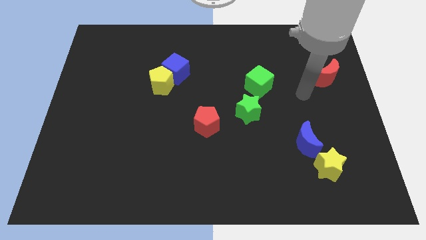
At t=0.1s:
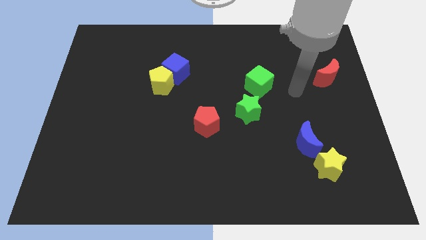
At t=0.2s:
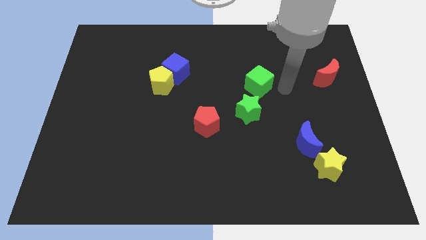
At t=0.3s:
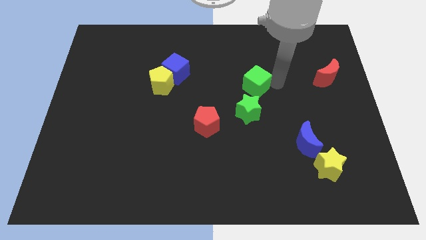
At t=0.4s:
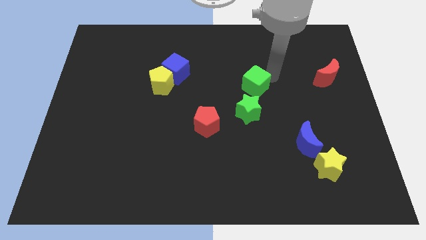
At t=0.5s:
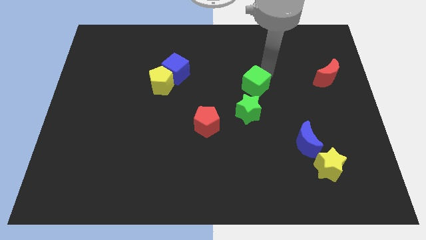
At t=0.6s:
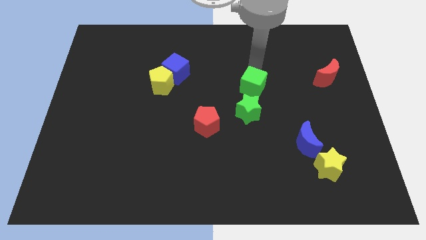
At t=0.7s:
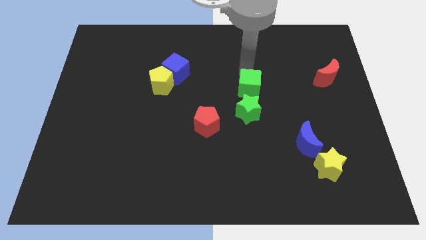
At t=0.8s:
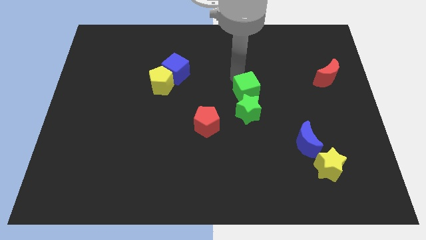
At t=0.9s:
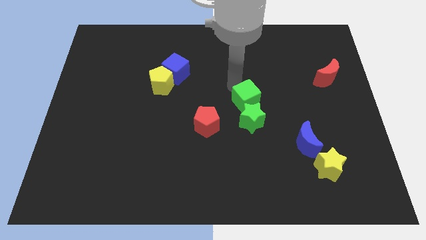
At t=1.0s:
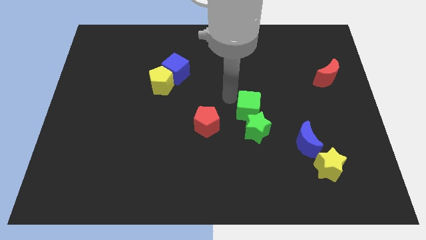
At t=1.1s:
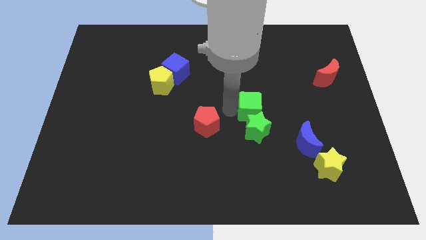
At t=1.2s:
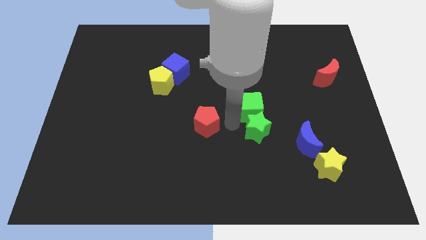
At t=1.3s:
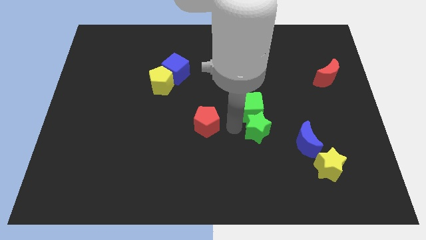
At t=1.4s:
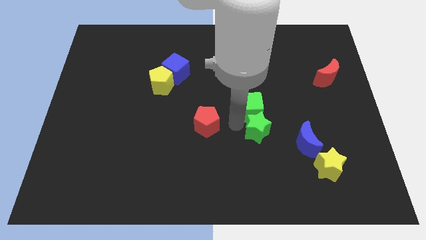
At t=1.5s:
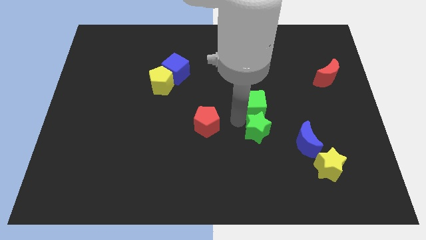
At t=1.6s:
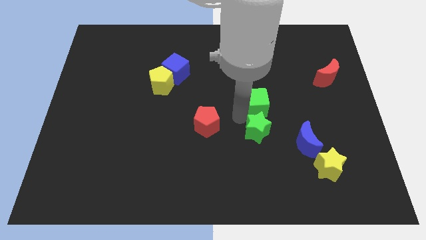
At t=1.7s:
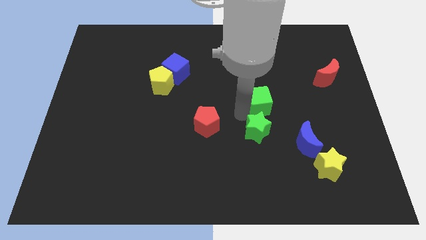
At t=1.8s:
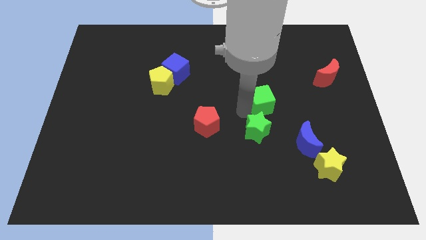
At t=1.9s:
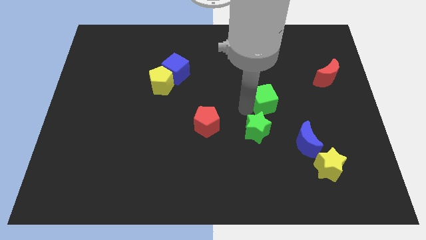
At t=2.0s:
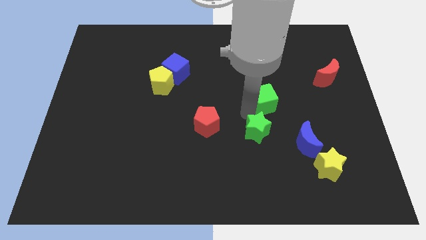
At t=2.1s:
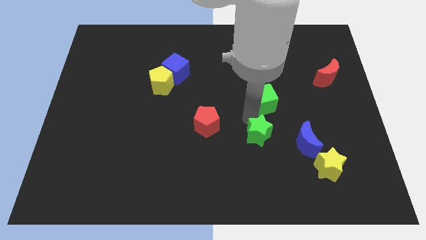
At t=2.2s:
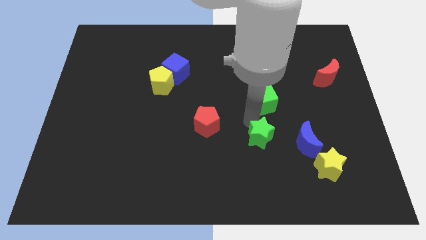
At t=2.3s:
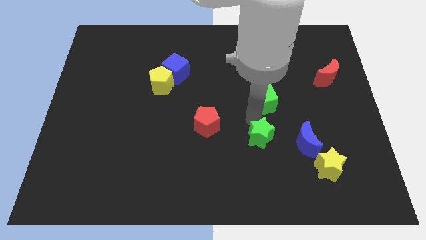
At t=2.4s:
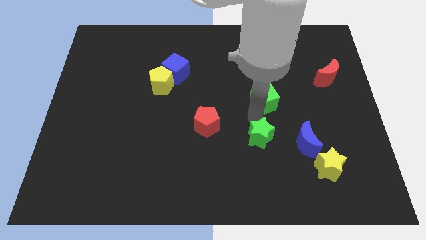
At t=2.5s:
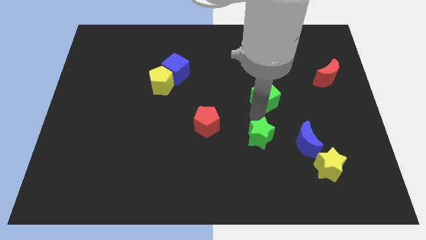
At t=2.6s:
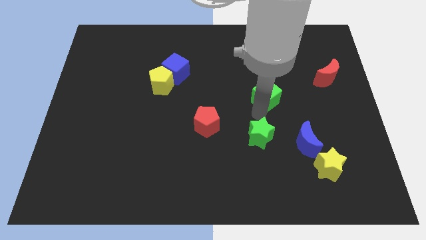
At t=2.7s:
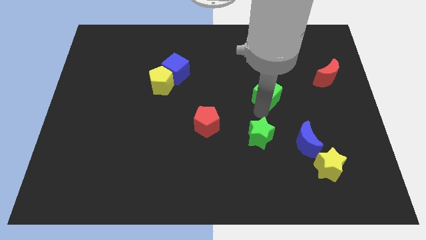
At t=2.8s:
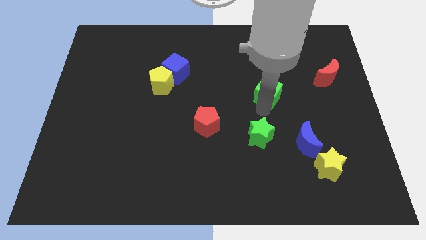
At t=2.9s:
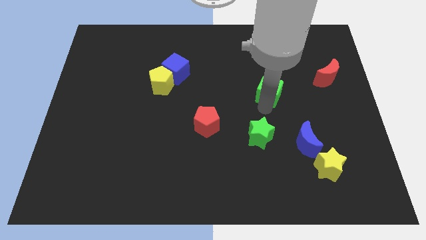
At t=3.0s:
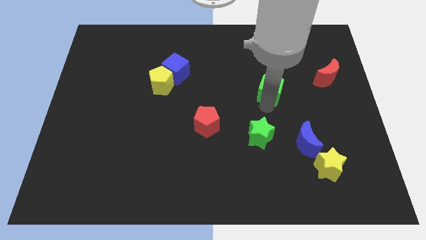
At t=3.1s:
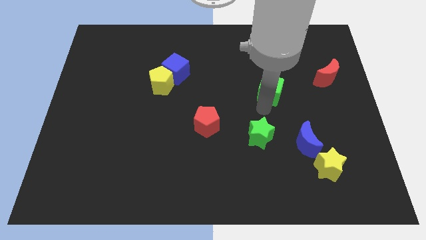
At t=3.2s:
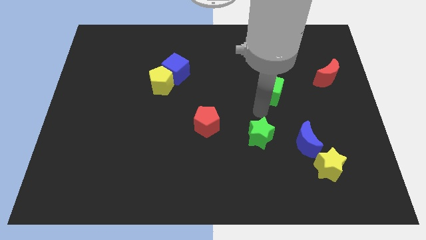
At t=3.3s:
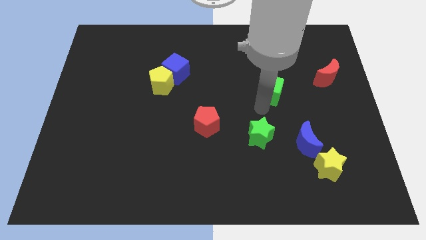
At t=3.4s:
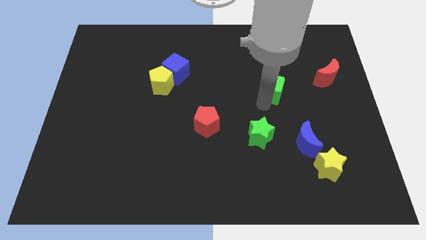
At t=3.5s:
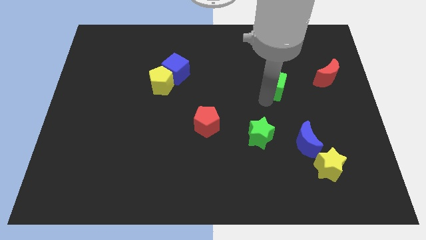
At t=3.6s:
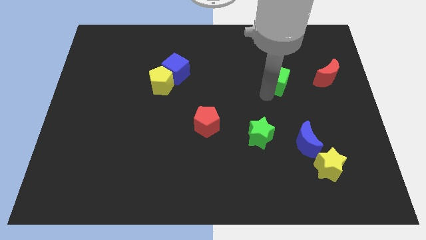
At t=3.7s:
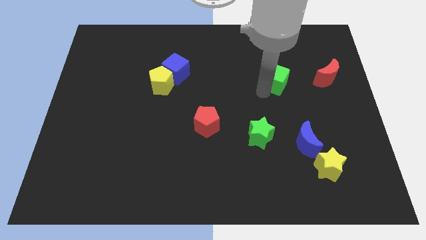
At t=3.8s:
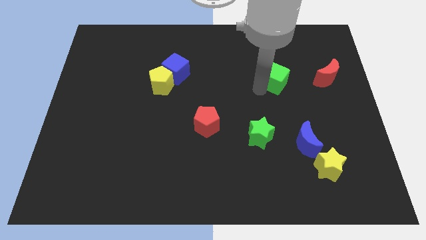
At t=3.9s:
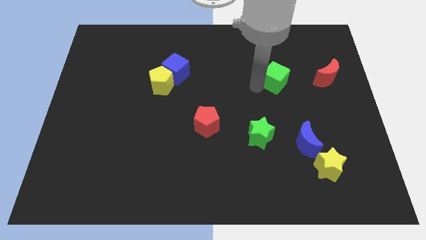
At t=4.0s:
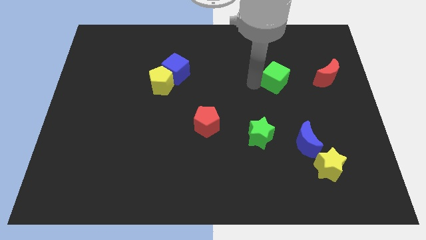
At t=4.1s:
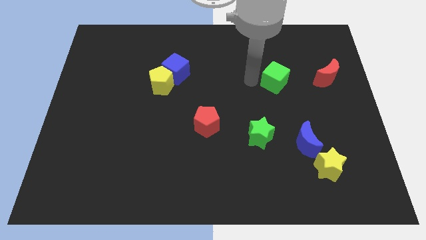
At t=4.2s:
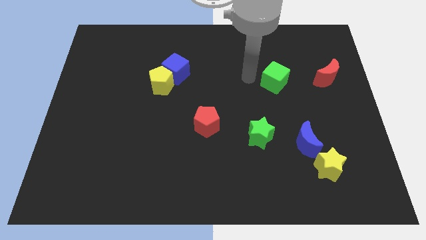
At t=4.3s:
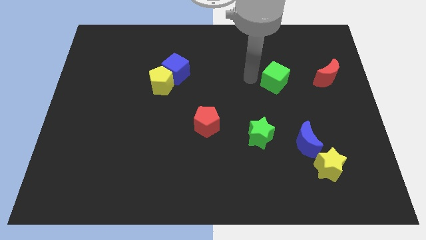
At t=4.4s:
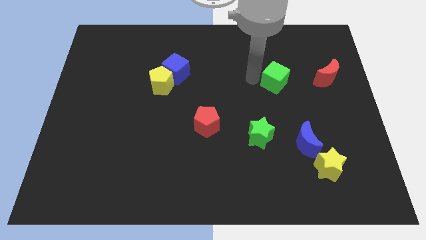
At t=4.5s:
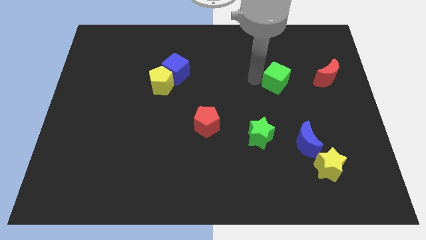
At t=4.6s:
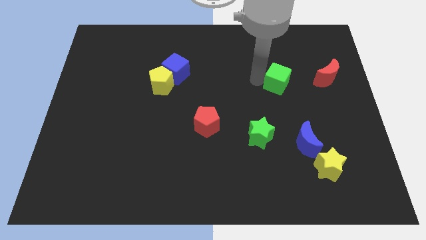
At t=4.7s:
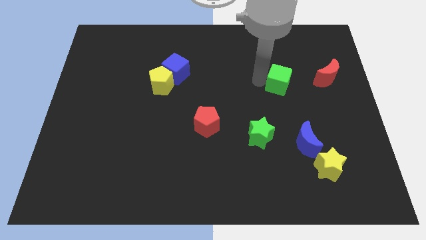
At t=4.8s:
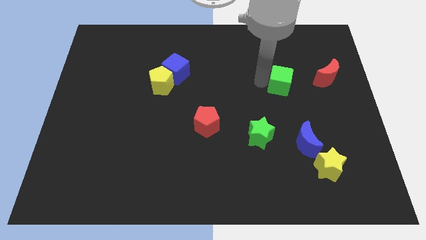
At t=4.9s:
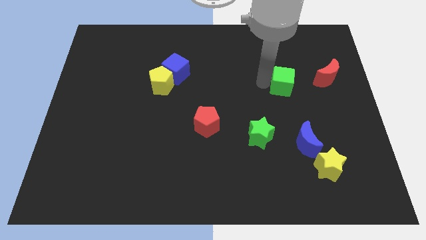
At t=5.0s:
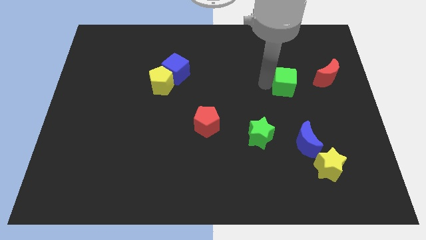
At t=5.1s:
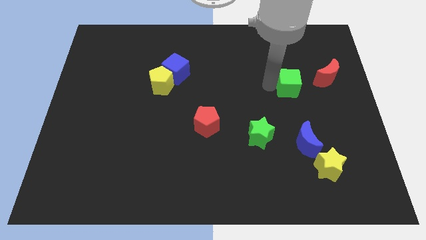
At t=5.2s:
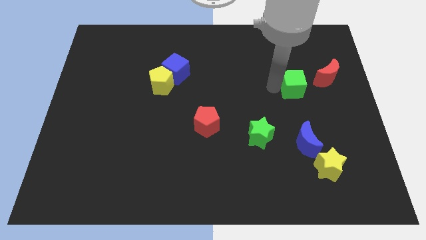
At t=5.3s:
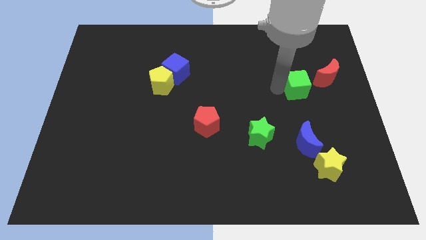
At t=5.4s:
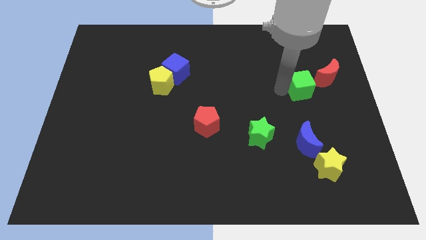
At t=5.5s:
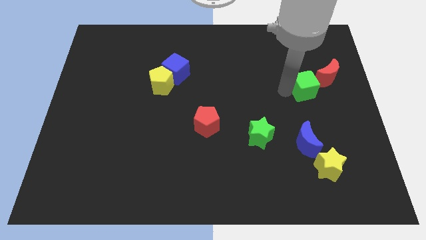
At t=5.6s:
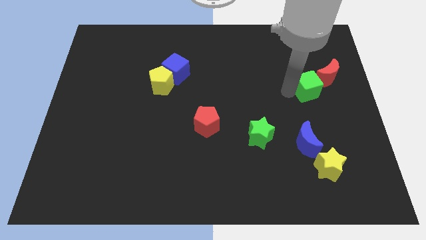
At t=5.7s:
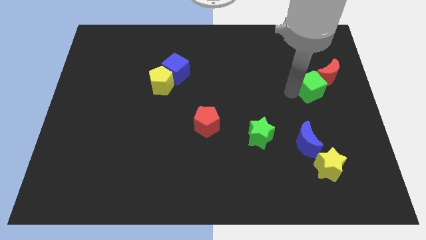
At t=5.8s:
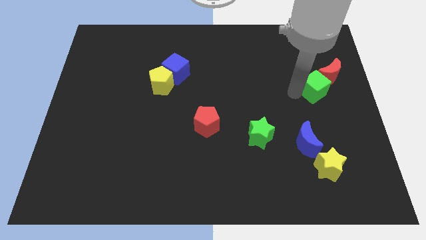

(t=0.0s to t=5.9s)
put the green cube close to the red moon

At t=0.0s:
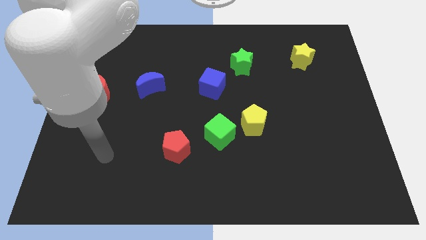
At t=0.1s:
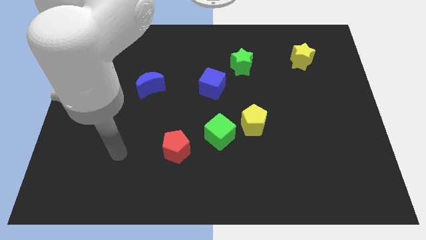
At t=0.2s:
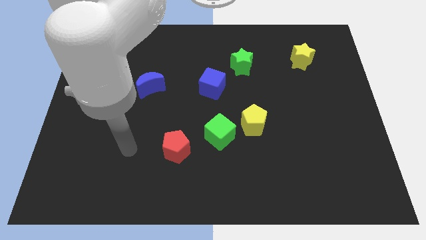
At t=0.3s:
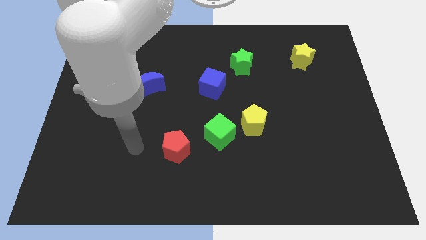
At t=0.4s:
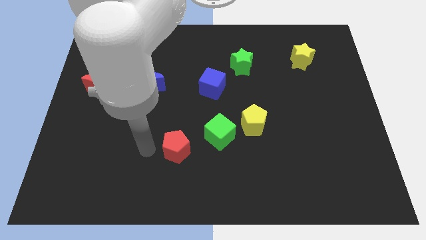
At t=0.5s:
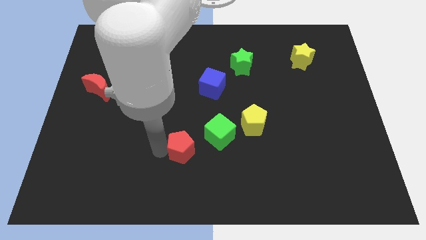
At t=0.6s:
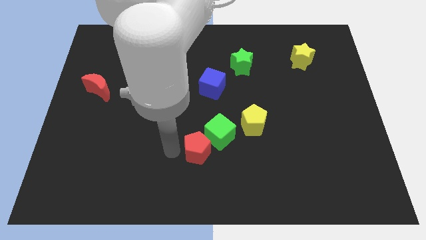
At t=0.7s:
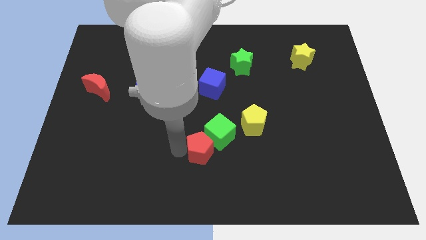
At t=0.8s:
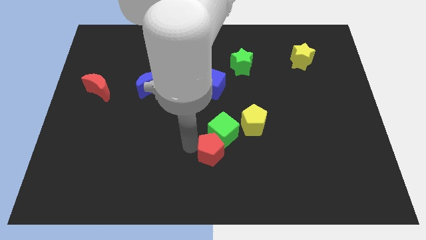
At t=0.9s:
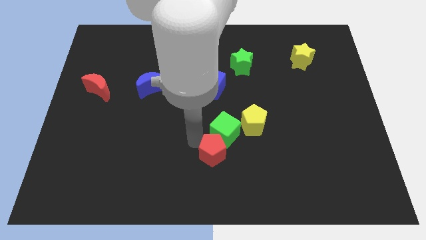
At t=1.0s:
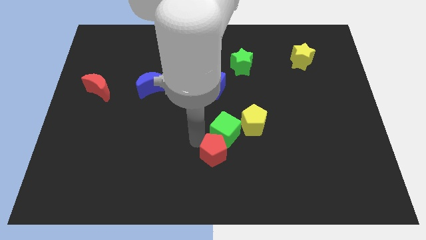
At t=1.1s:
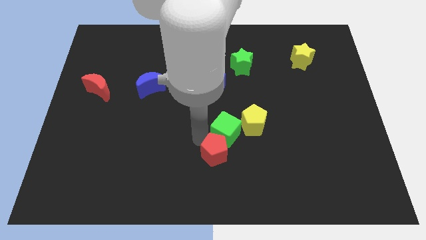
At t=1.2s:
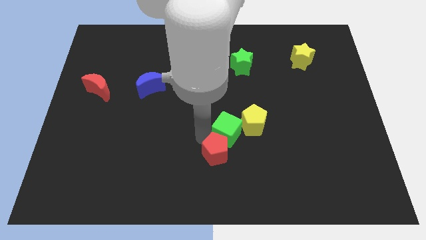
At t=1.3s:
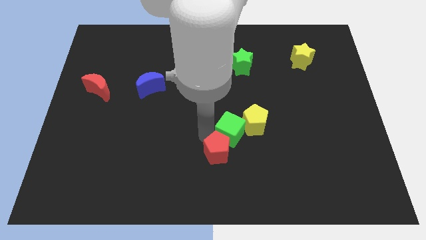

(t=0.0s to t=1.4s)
put the green cube close to the yellow pentagon
